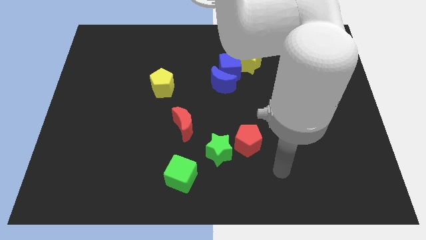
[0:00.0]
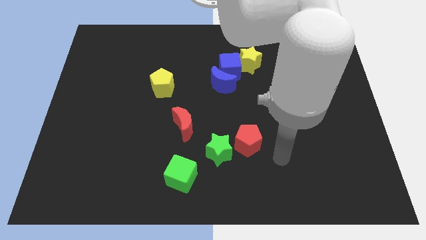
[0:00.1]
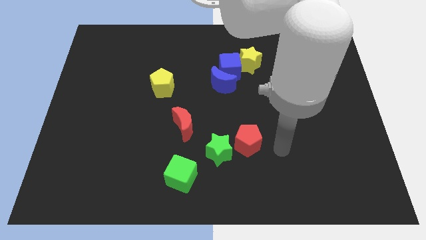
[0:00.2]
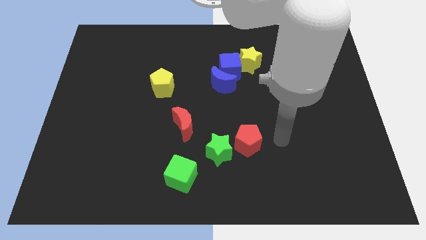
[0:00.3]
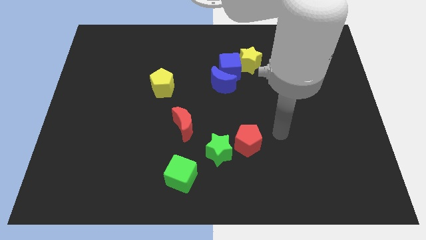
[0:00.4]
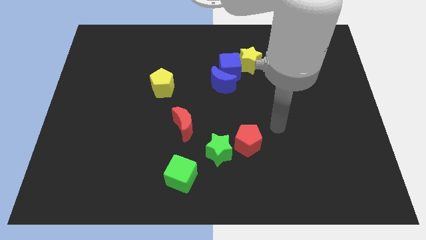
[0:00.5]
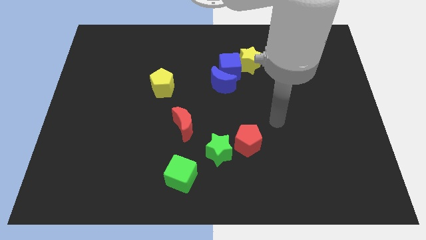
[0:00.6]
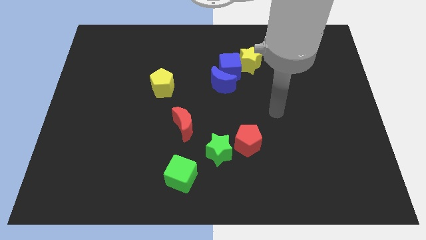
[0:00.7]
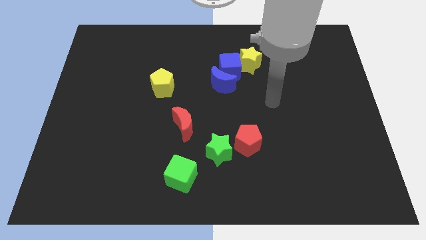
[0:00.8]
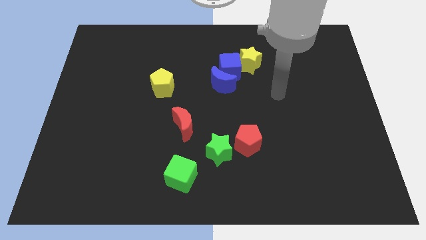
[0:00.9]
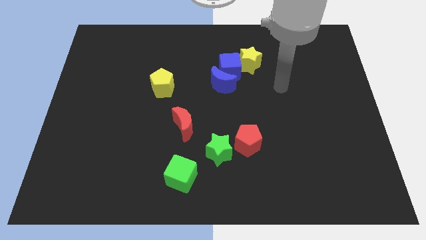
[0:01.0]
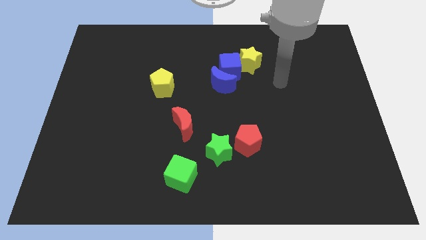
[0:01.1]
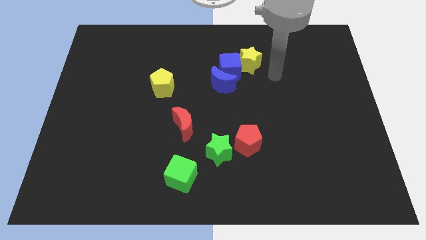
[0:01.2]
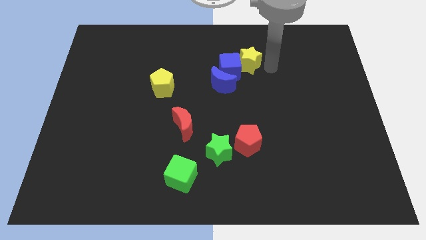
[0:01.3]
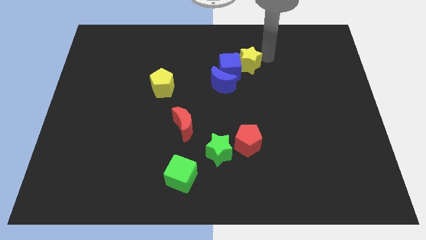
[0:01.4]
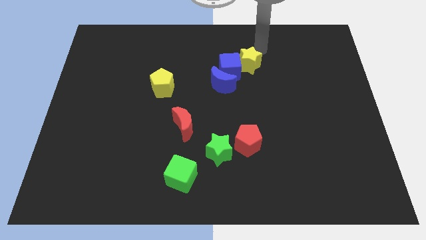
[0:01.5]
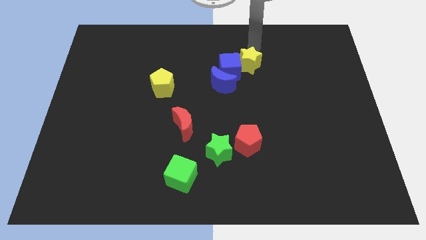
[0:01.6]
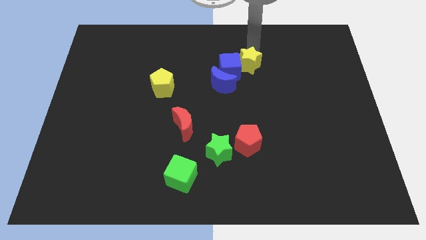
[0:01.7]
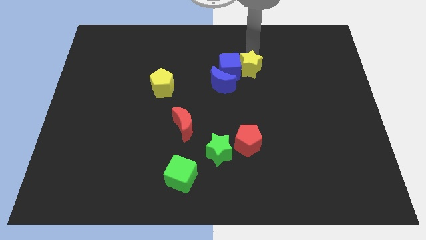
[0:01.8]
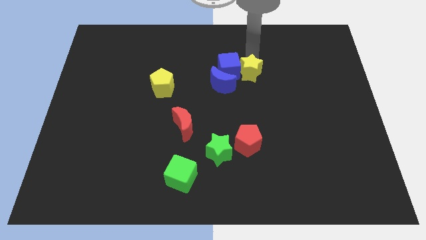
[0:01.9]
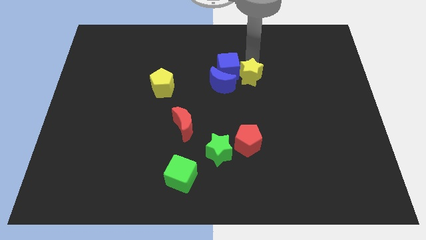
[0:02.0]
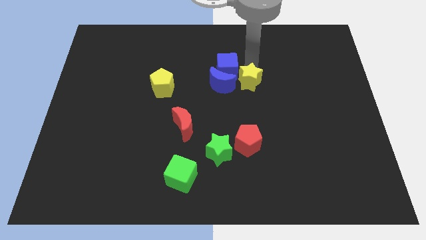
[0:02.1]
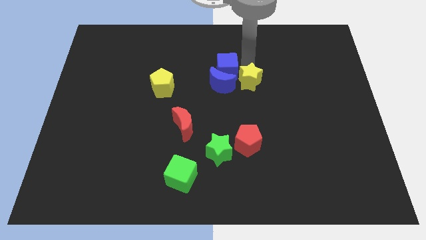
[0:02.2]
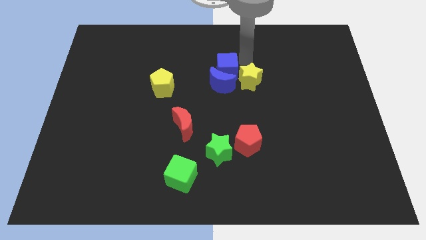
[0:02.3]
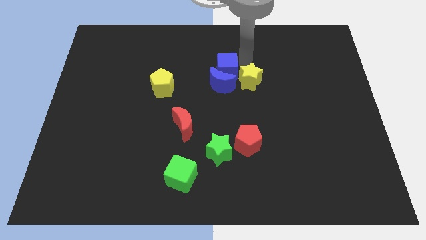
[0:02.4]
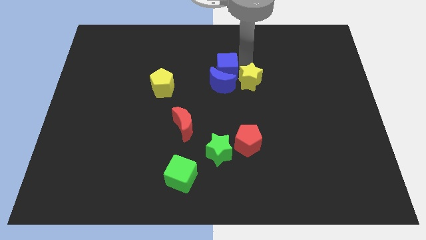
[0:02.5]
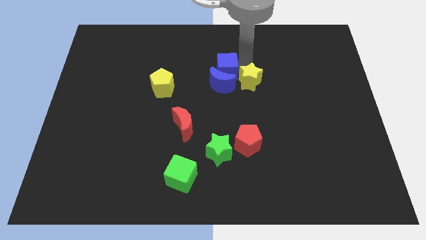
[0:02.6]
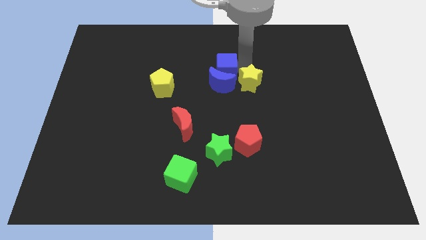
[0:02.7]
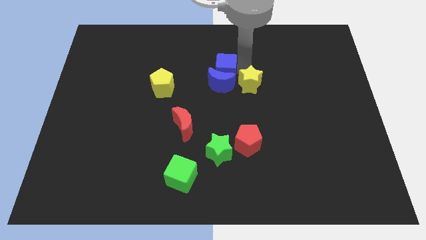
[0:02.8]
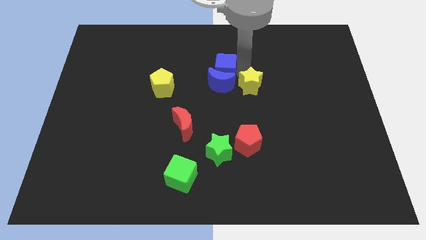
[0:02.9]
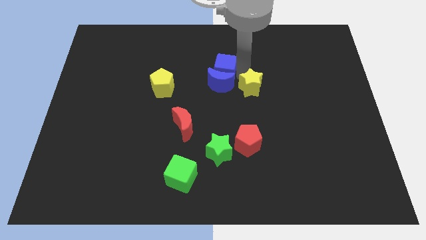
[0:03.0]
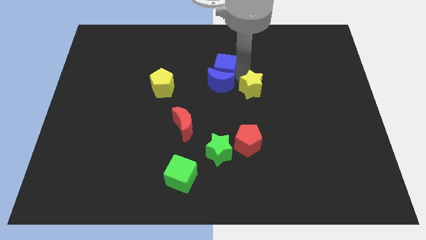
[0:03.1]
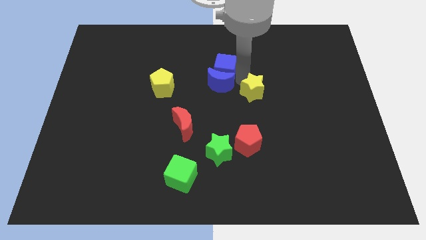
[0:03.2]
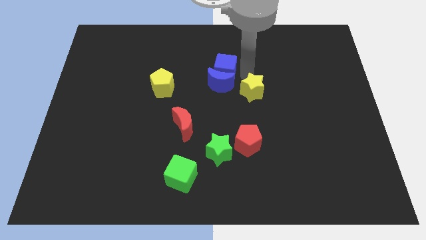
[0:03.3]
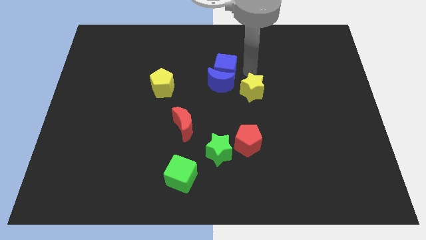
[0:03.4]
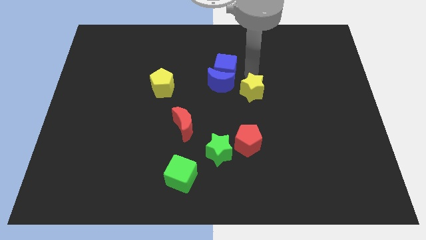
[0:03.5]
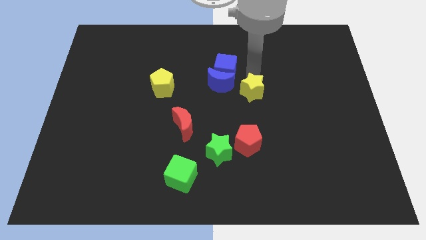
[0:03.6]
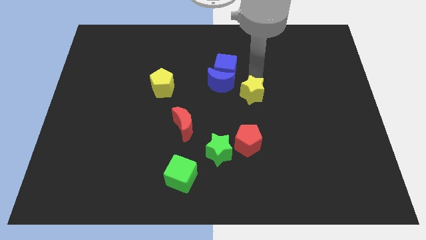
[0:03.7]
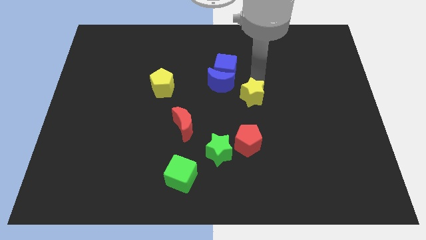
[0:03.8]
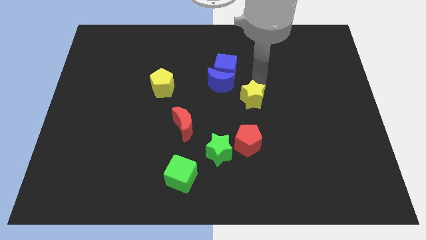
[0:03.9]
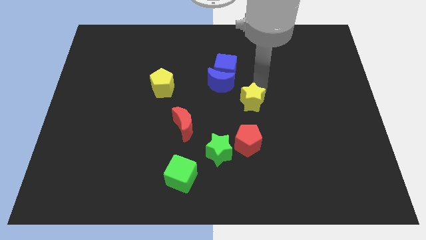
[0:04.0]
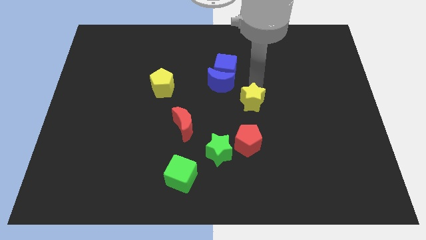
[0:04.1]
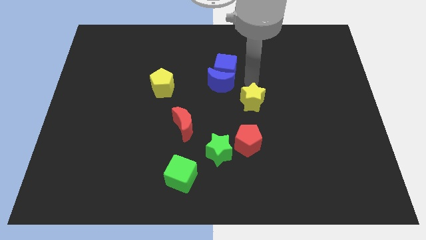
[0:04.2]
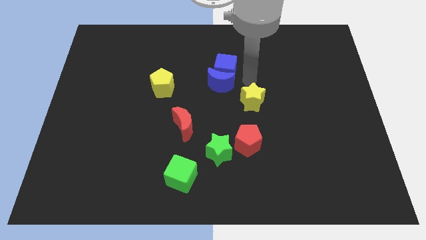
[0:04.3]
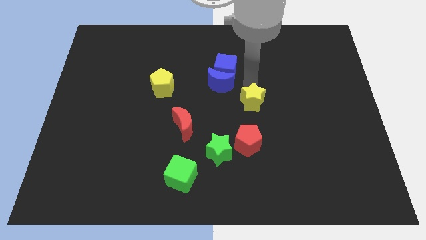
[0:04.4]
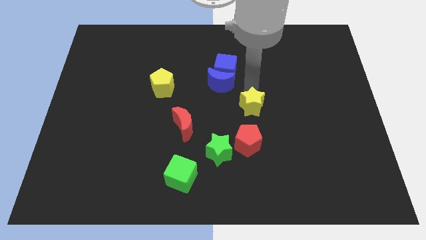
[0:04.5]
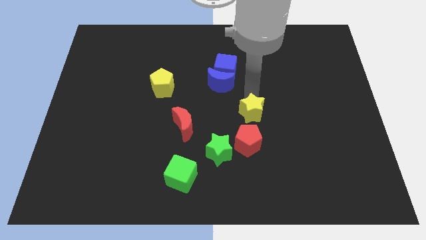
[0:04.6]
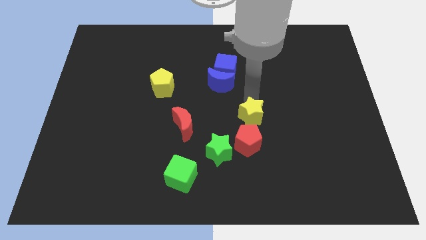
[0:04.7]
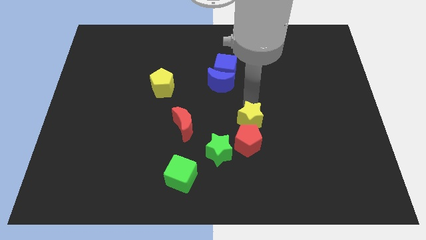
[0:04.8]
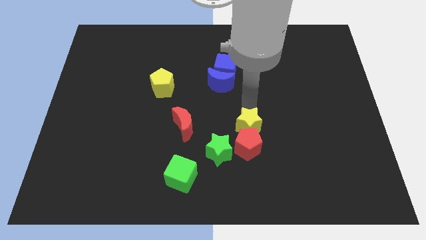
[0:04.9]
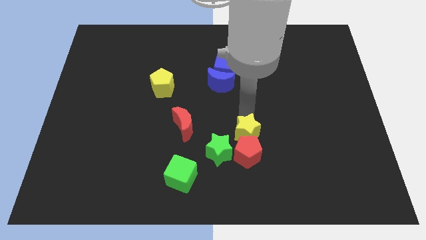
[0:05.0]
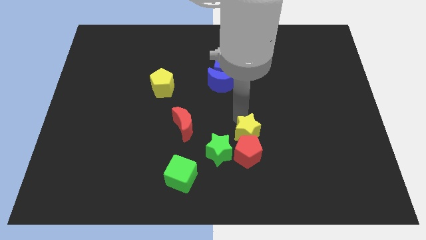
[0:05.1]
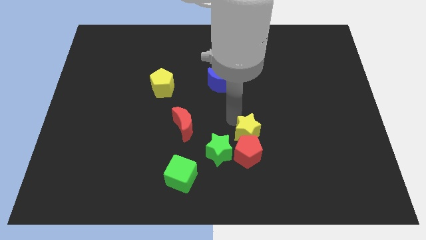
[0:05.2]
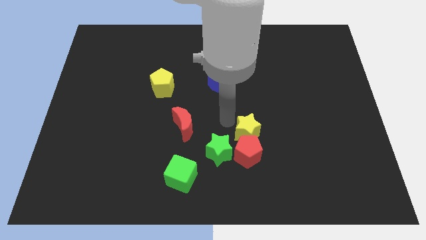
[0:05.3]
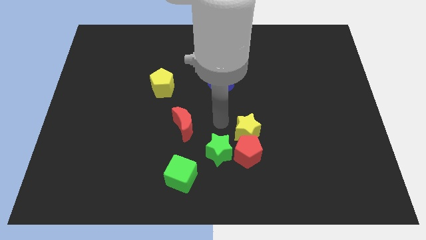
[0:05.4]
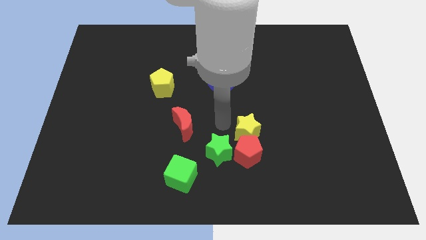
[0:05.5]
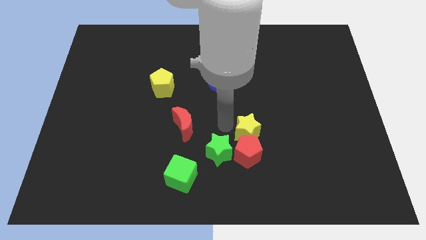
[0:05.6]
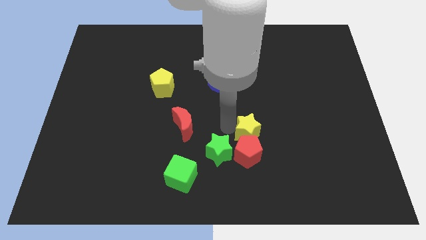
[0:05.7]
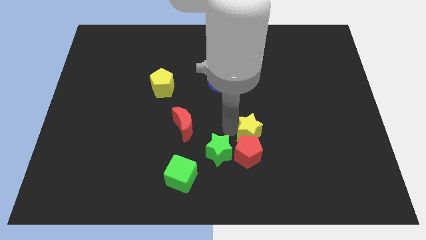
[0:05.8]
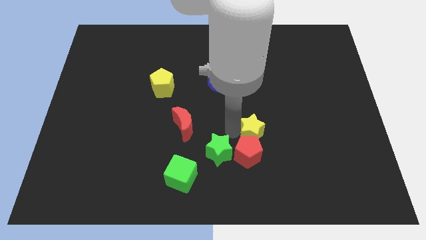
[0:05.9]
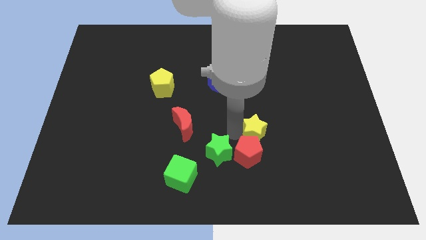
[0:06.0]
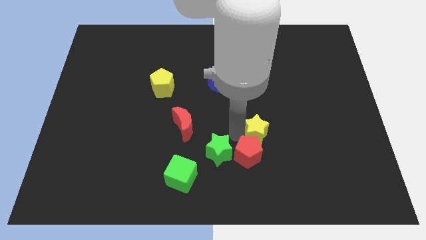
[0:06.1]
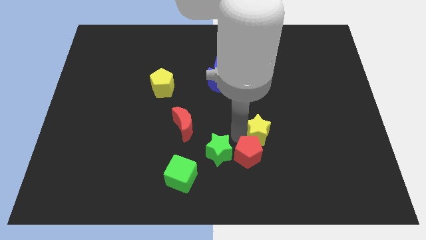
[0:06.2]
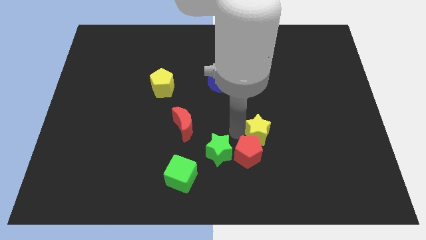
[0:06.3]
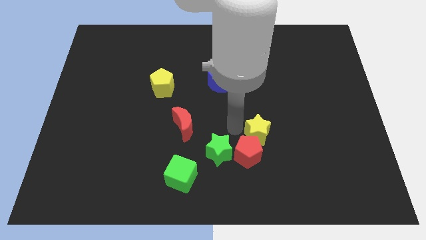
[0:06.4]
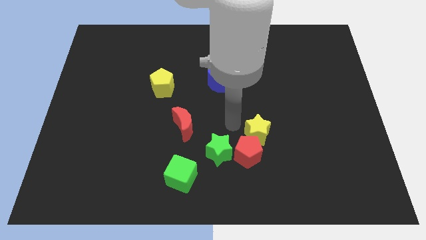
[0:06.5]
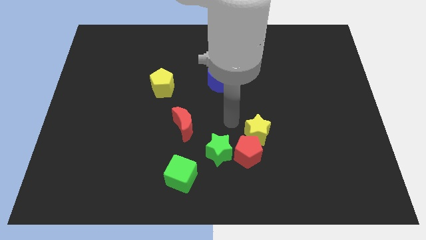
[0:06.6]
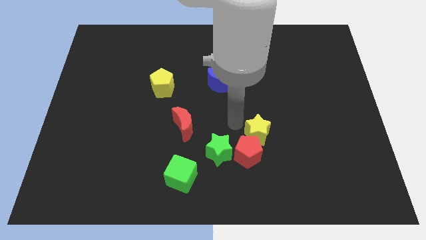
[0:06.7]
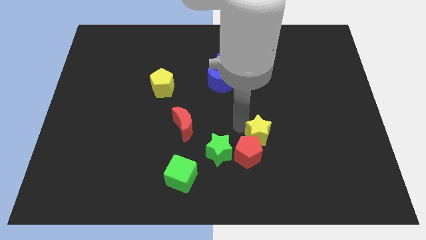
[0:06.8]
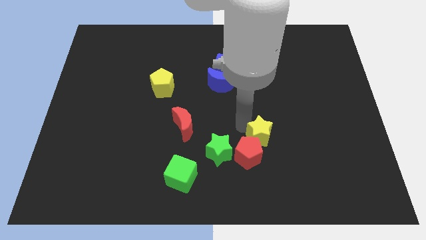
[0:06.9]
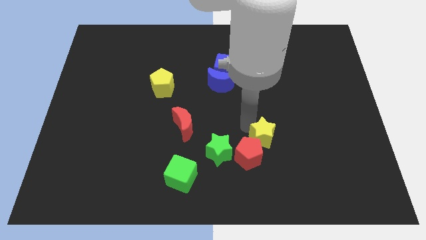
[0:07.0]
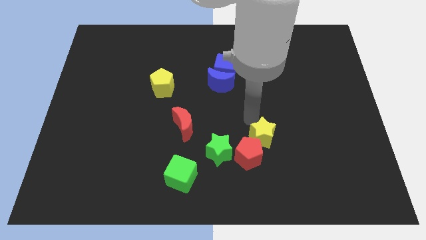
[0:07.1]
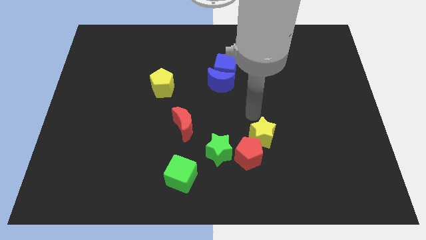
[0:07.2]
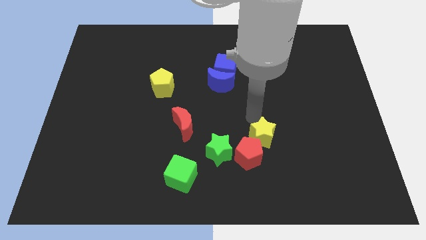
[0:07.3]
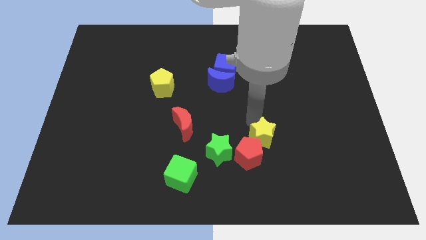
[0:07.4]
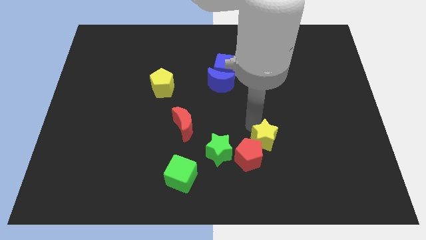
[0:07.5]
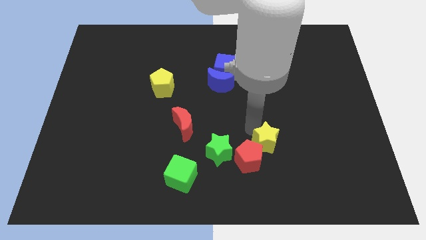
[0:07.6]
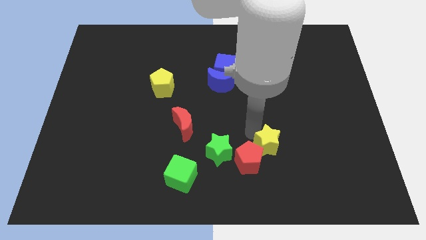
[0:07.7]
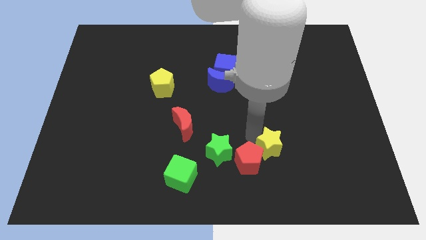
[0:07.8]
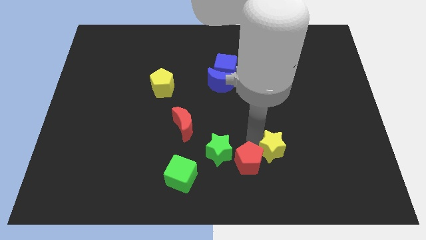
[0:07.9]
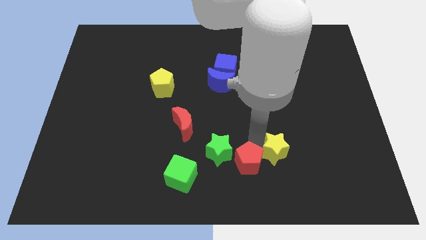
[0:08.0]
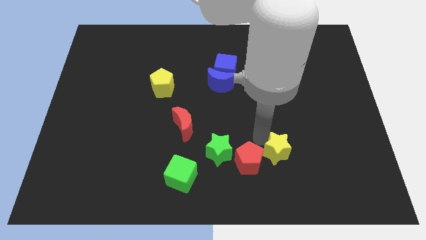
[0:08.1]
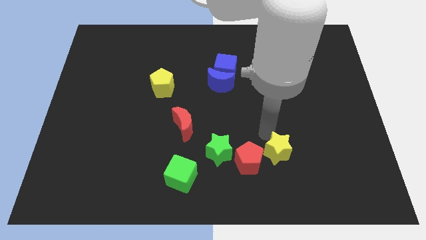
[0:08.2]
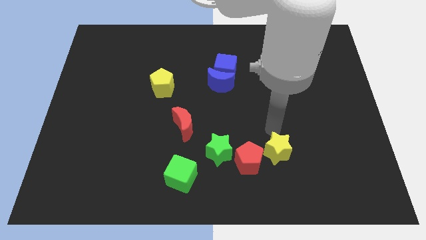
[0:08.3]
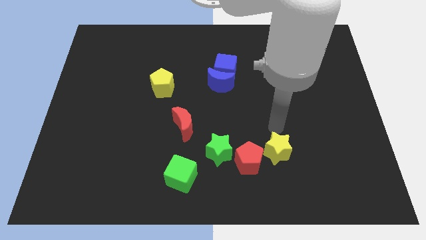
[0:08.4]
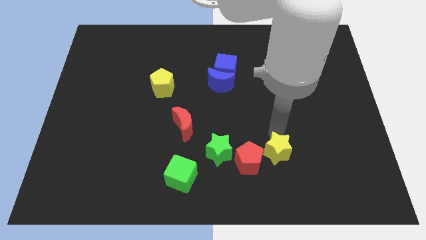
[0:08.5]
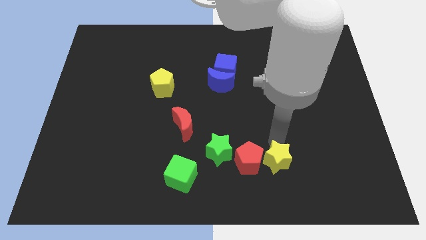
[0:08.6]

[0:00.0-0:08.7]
put the yellow star diagonally down and to the right of the red pentagon
